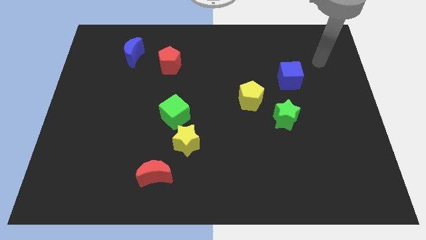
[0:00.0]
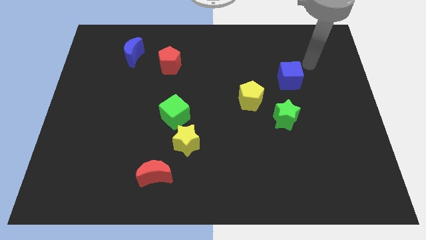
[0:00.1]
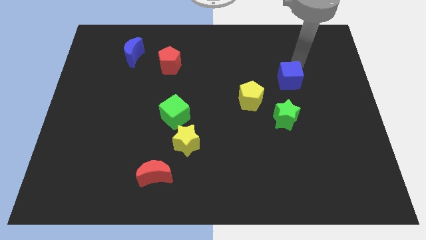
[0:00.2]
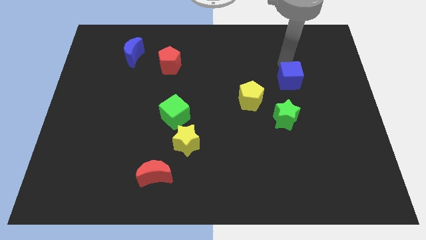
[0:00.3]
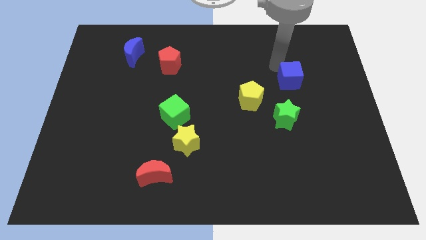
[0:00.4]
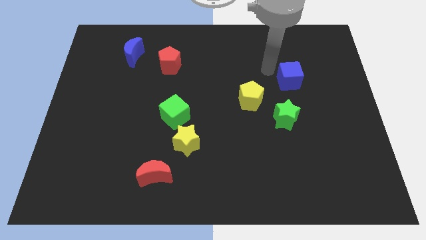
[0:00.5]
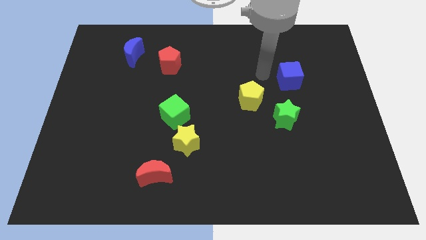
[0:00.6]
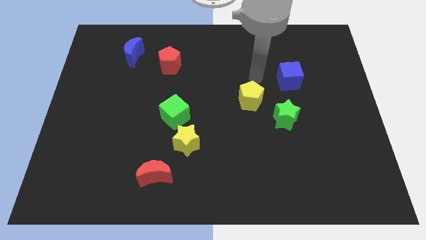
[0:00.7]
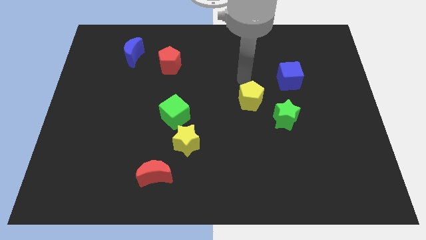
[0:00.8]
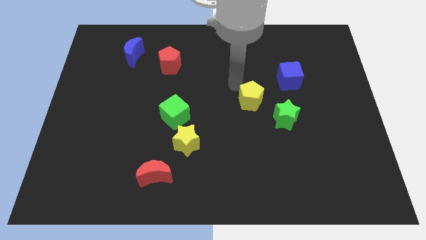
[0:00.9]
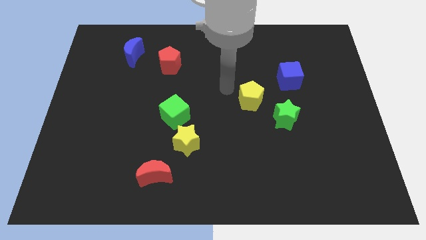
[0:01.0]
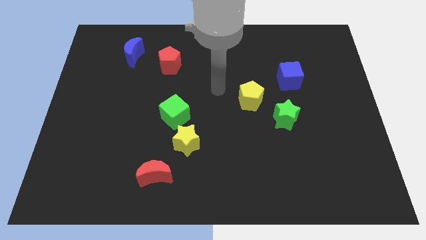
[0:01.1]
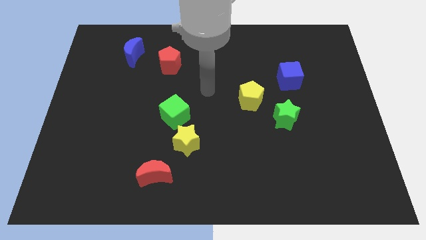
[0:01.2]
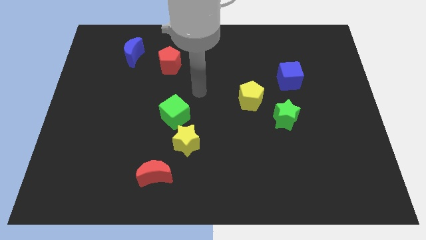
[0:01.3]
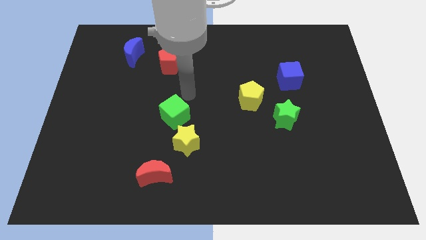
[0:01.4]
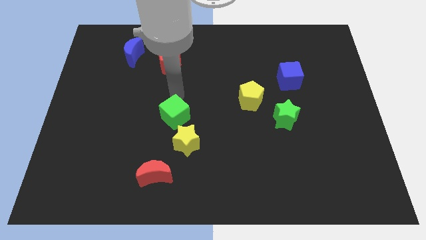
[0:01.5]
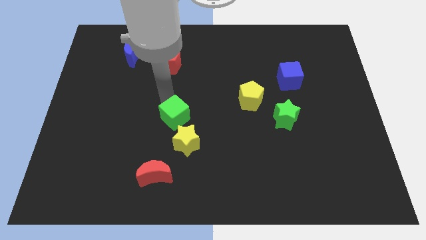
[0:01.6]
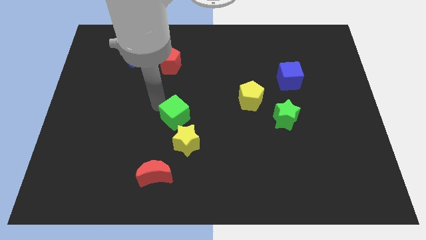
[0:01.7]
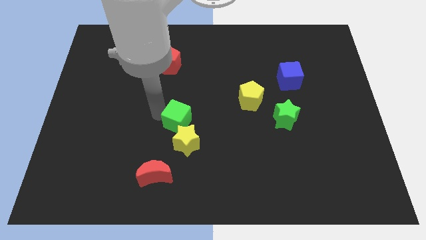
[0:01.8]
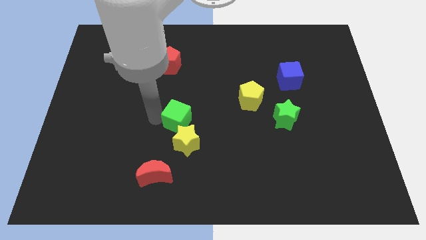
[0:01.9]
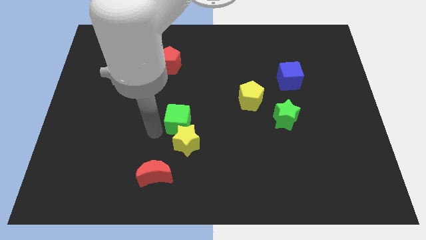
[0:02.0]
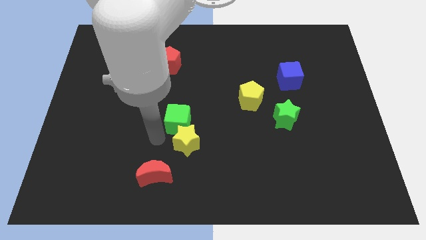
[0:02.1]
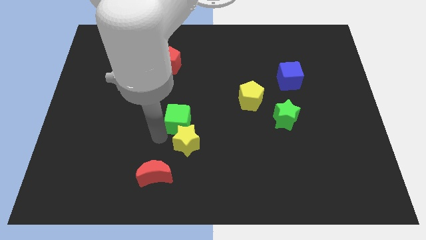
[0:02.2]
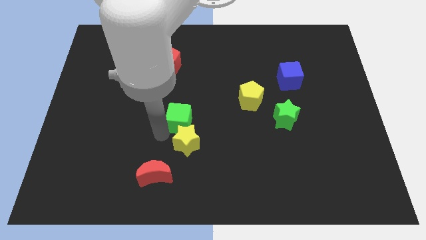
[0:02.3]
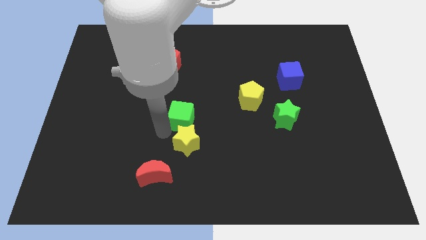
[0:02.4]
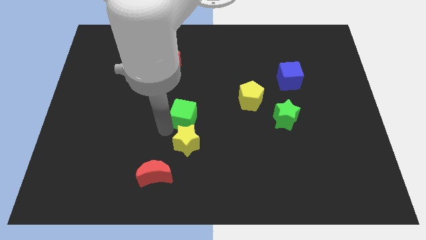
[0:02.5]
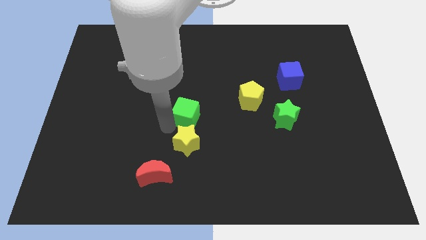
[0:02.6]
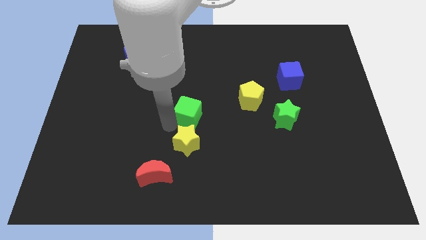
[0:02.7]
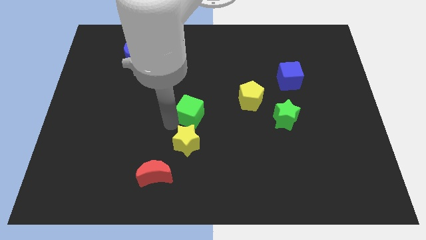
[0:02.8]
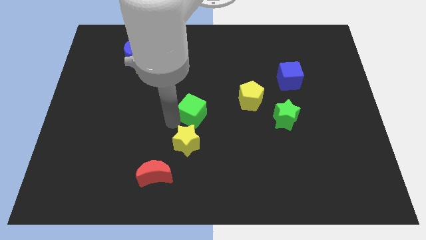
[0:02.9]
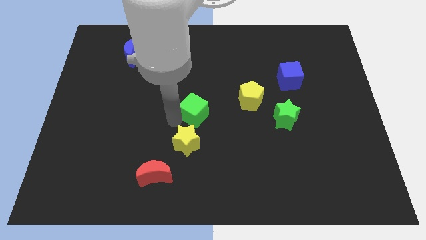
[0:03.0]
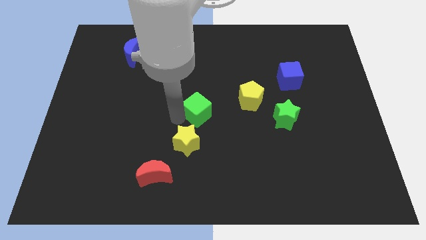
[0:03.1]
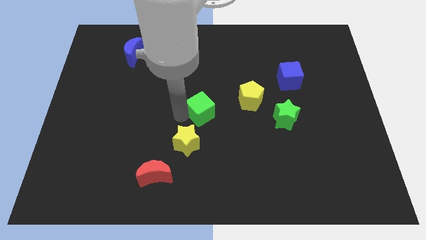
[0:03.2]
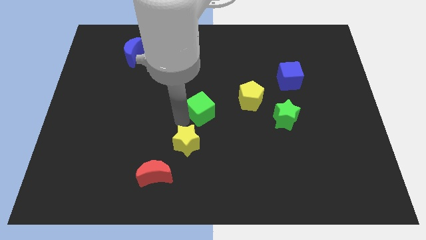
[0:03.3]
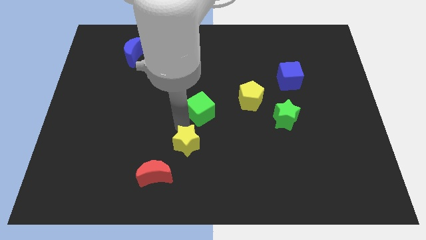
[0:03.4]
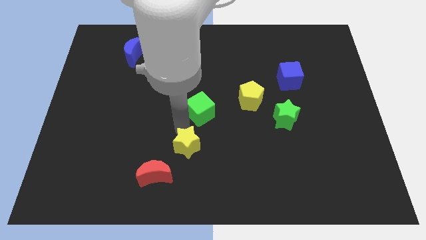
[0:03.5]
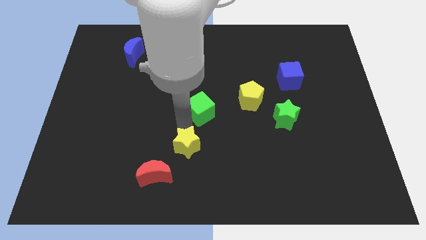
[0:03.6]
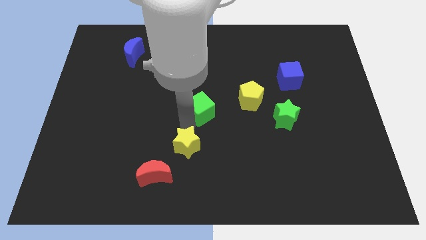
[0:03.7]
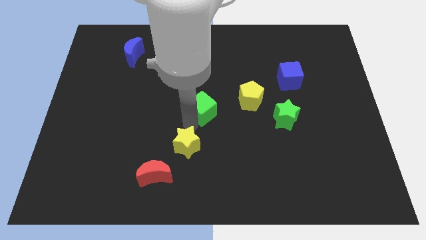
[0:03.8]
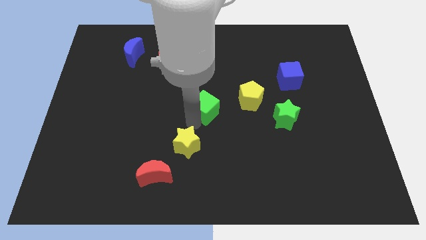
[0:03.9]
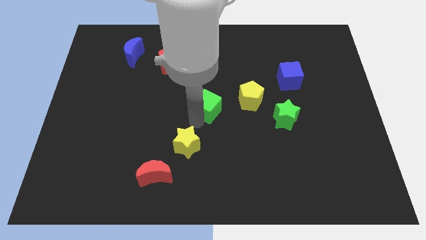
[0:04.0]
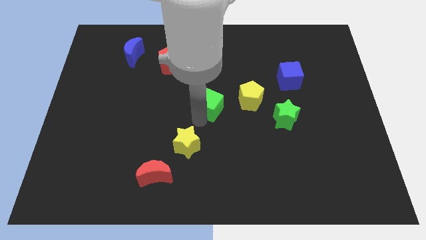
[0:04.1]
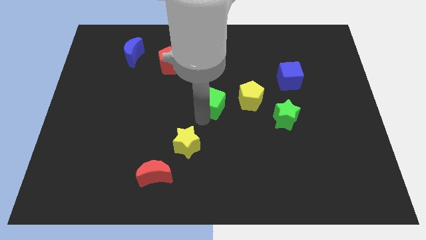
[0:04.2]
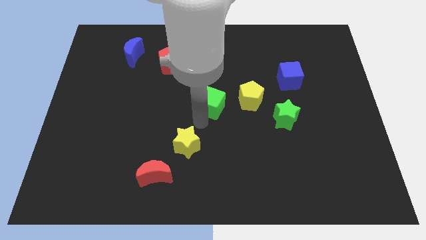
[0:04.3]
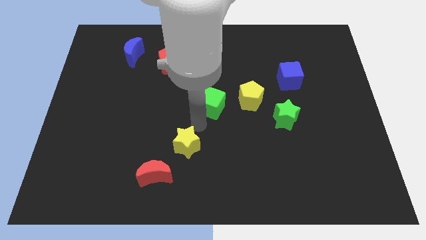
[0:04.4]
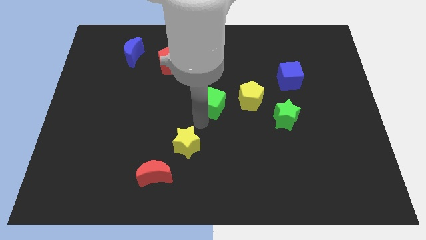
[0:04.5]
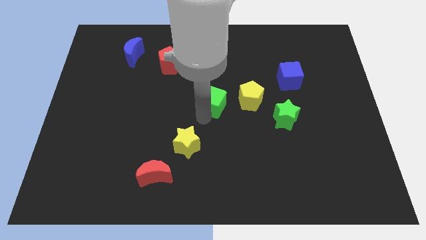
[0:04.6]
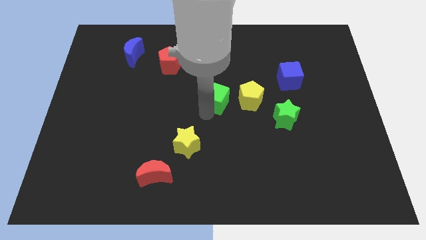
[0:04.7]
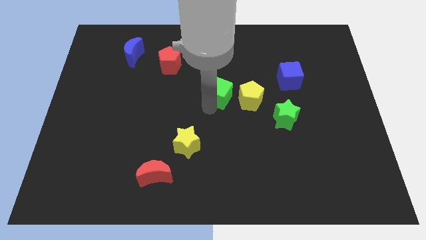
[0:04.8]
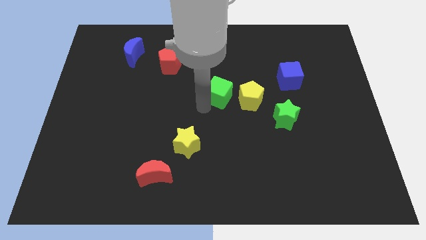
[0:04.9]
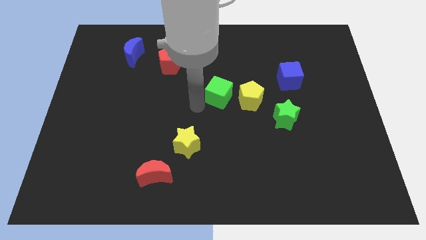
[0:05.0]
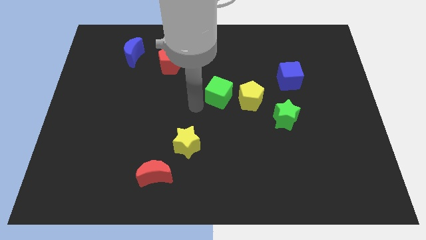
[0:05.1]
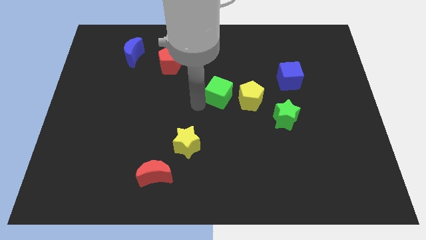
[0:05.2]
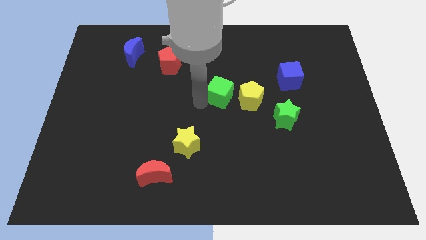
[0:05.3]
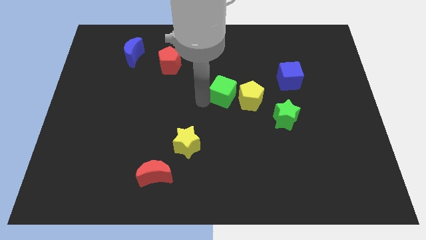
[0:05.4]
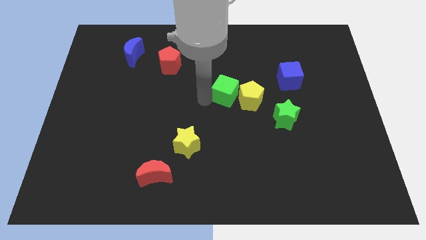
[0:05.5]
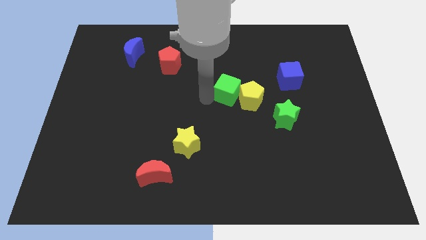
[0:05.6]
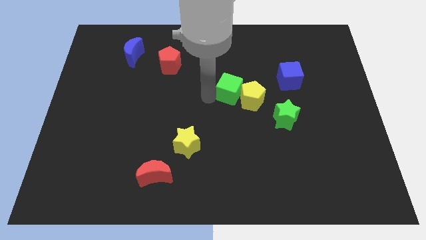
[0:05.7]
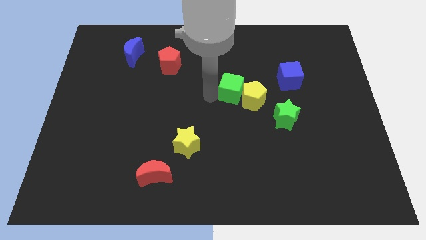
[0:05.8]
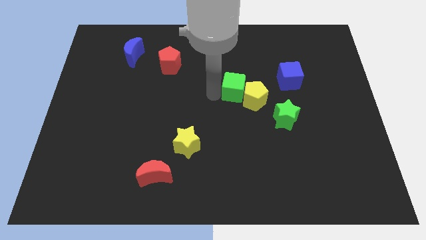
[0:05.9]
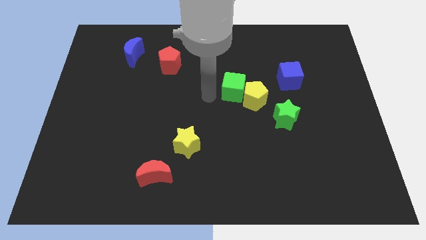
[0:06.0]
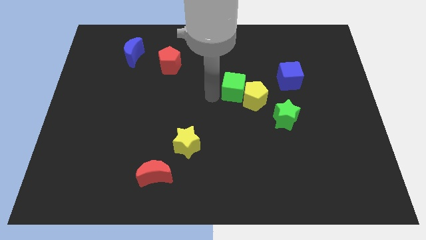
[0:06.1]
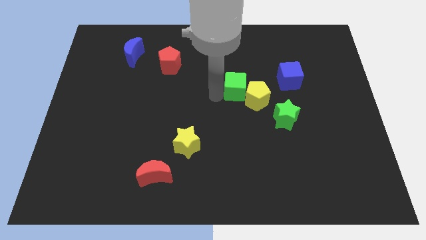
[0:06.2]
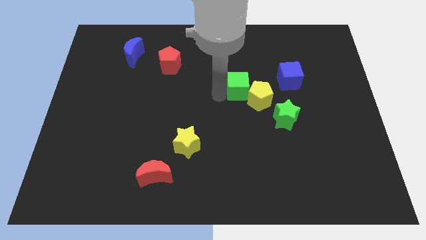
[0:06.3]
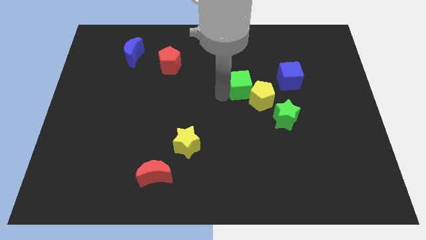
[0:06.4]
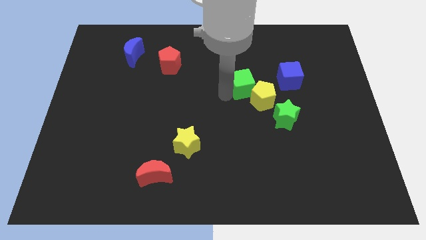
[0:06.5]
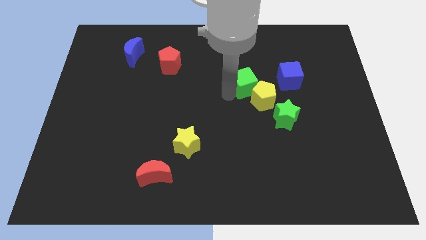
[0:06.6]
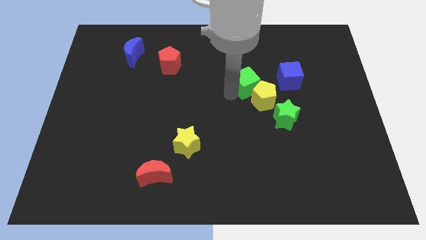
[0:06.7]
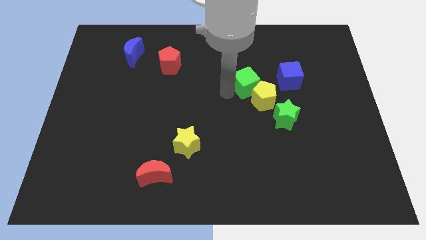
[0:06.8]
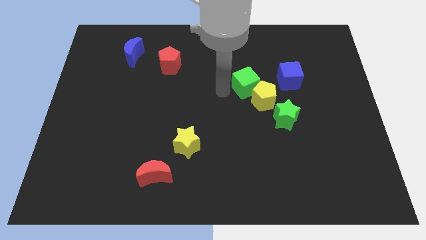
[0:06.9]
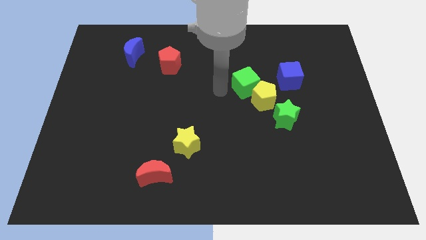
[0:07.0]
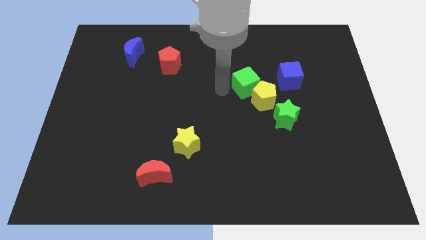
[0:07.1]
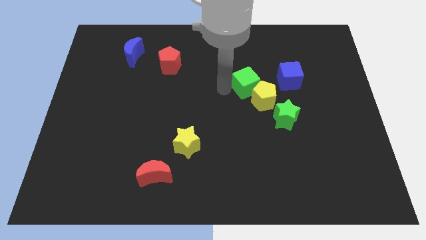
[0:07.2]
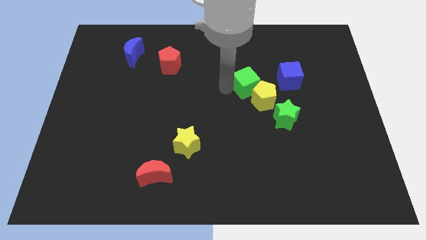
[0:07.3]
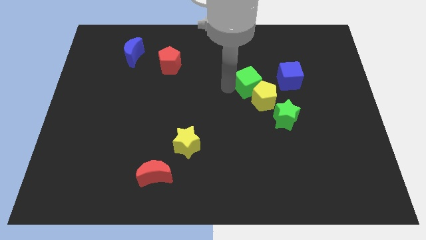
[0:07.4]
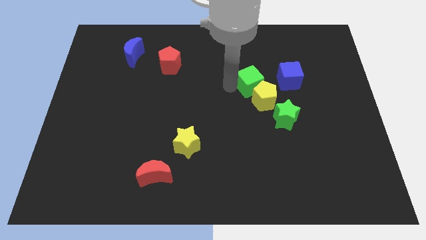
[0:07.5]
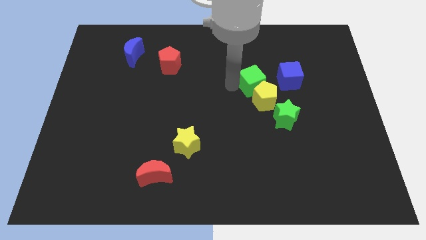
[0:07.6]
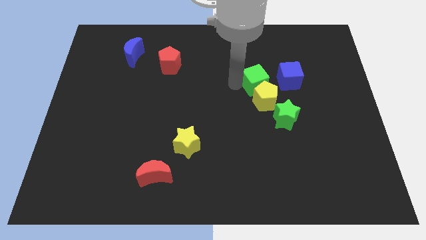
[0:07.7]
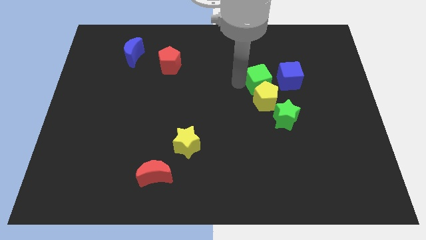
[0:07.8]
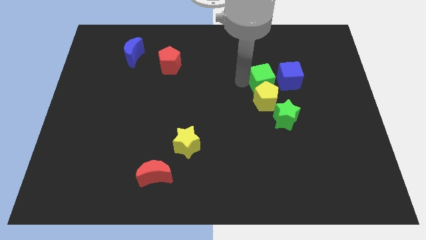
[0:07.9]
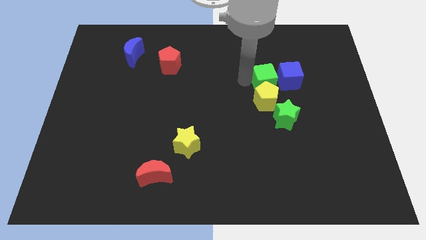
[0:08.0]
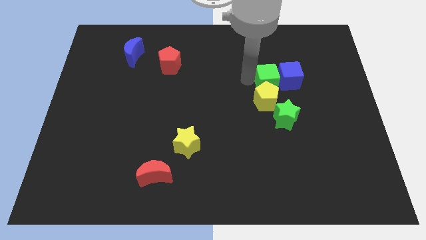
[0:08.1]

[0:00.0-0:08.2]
slide the green cube to the blue cube
